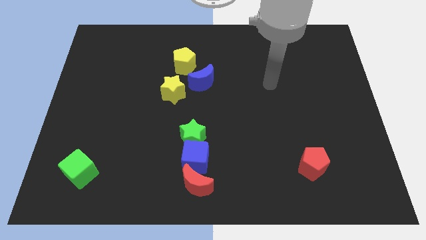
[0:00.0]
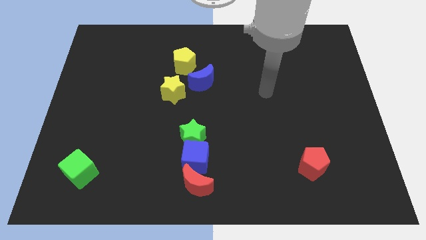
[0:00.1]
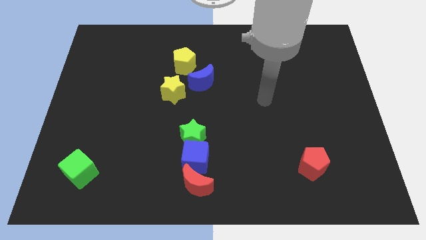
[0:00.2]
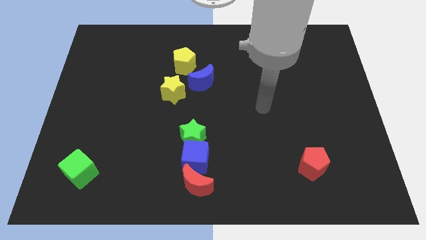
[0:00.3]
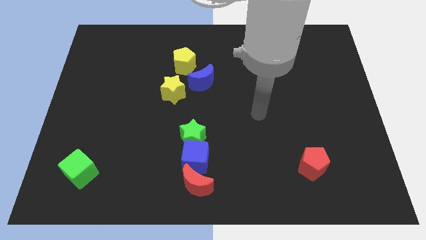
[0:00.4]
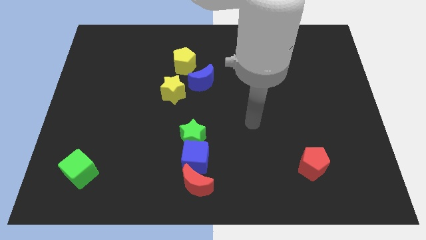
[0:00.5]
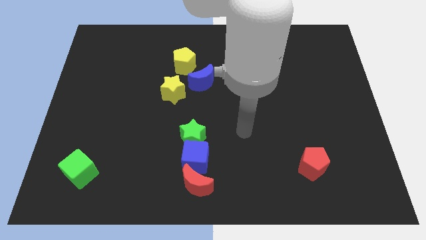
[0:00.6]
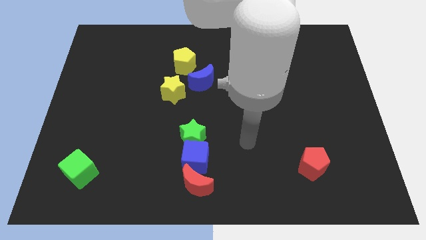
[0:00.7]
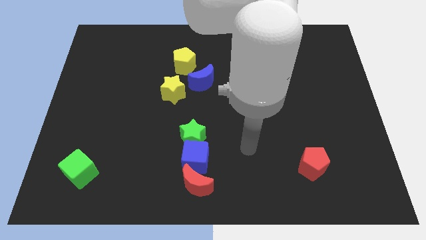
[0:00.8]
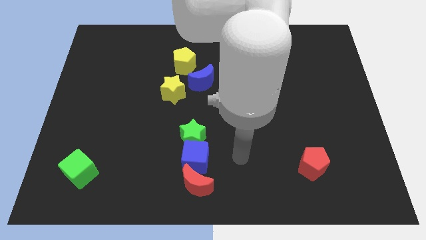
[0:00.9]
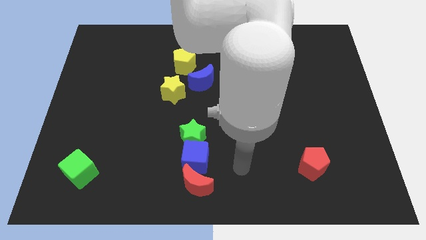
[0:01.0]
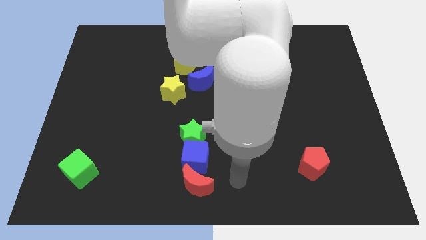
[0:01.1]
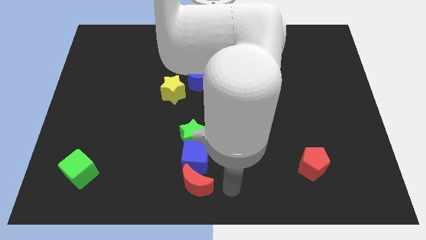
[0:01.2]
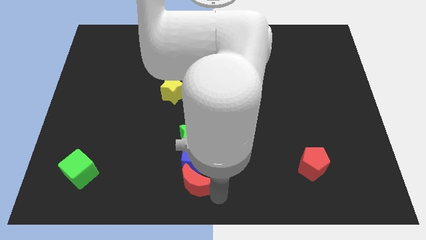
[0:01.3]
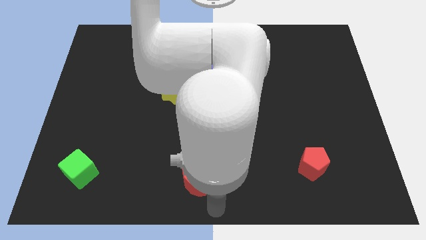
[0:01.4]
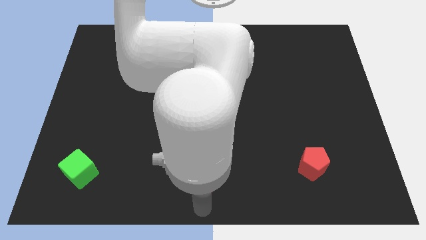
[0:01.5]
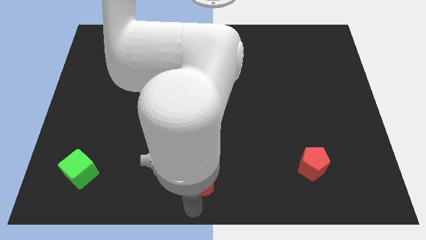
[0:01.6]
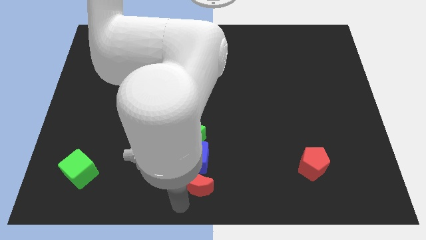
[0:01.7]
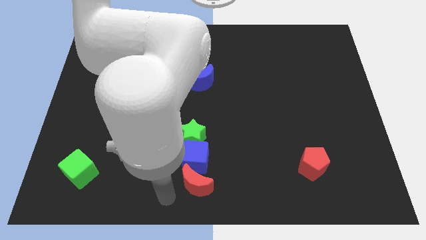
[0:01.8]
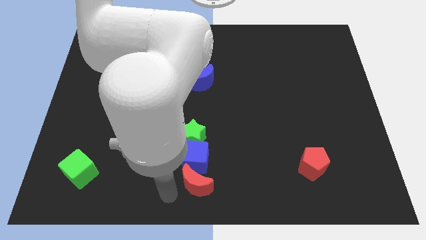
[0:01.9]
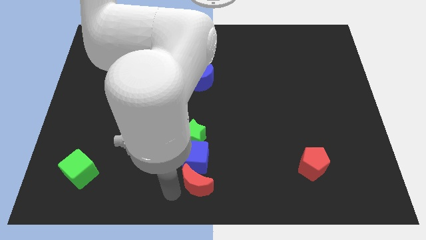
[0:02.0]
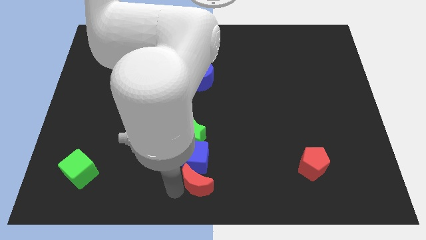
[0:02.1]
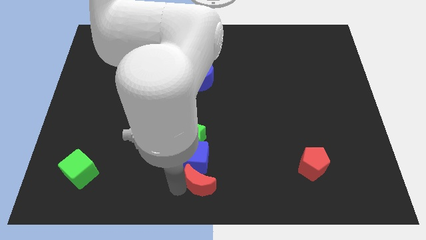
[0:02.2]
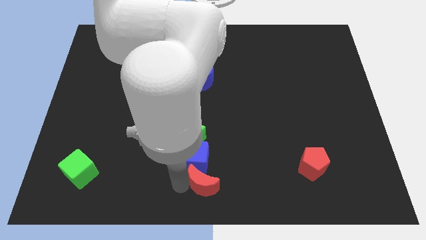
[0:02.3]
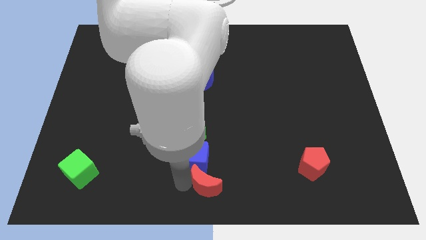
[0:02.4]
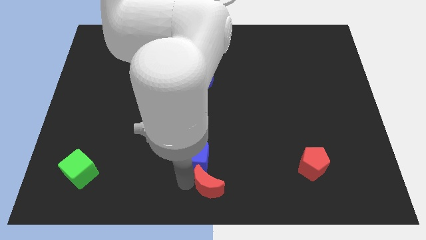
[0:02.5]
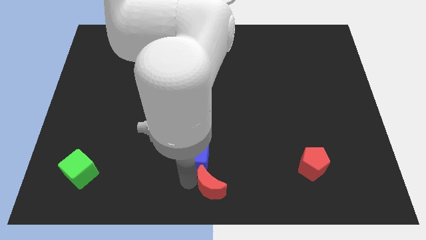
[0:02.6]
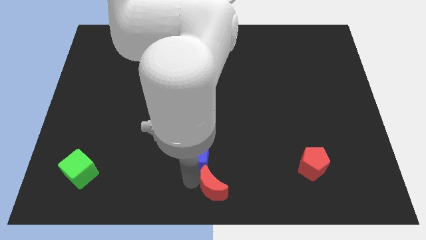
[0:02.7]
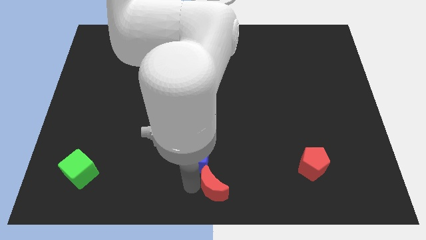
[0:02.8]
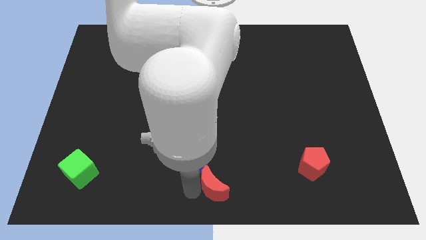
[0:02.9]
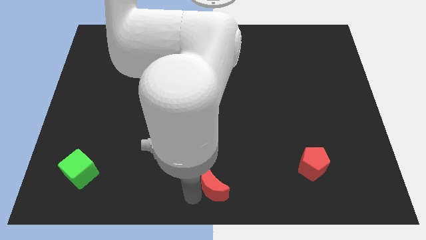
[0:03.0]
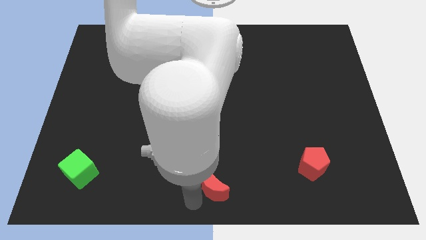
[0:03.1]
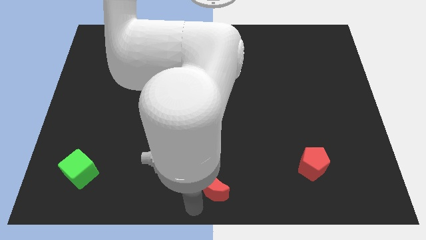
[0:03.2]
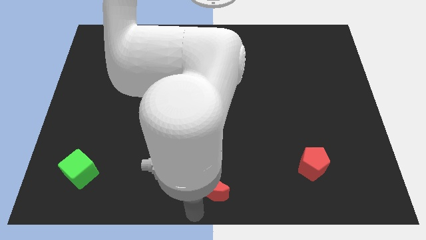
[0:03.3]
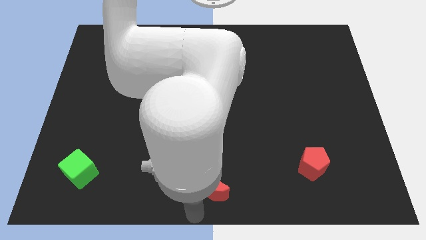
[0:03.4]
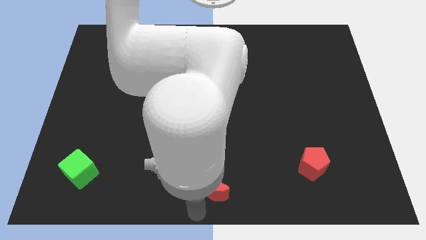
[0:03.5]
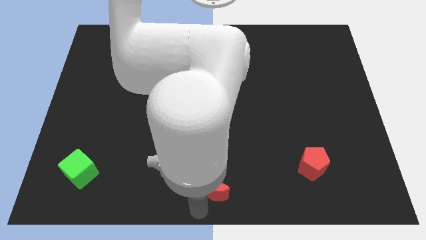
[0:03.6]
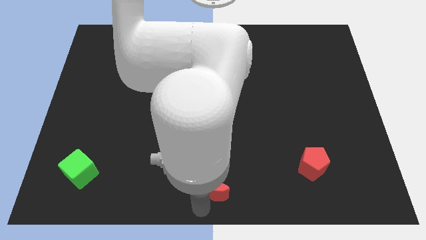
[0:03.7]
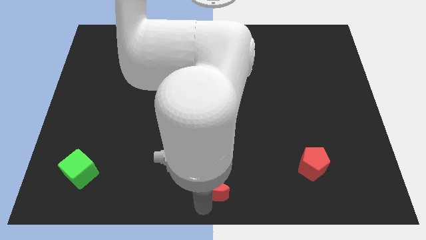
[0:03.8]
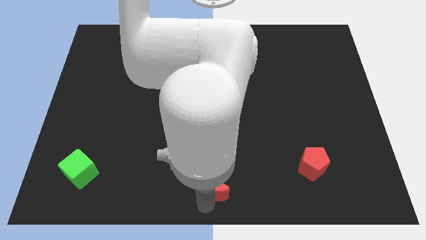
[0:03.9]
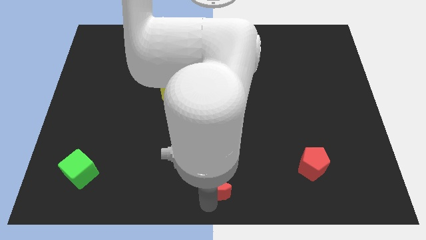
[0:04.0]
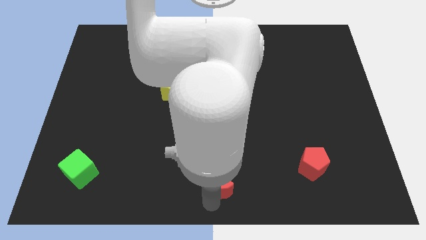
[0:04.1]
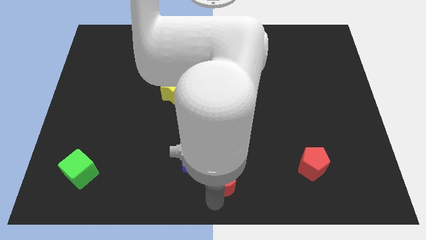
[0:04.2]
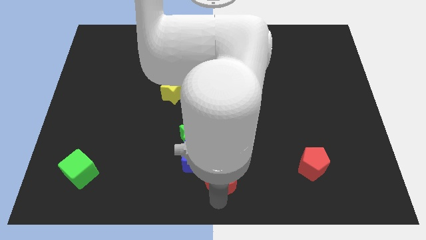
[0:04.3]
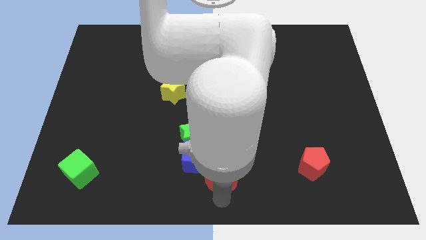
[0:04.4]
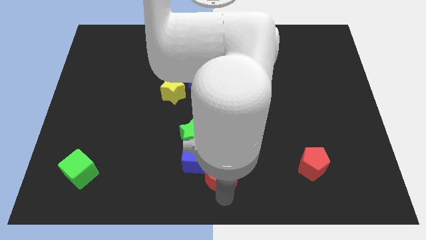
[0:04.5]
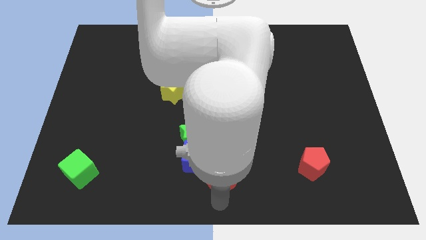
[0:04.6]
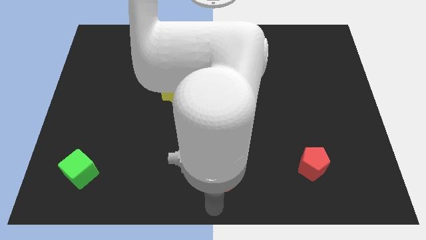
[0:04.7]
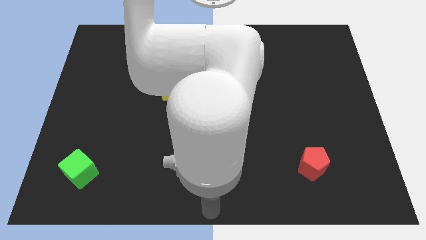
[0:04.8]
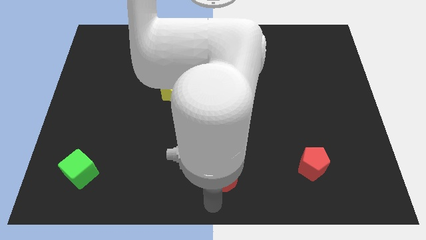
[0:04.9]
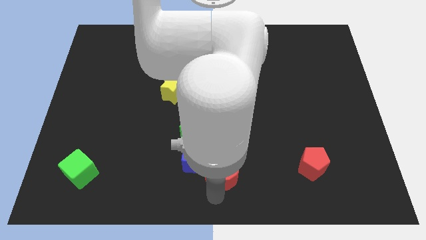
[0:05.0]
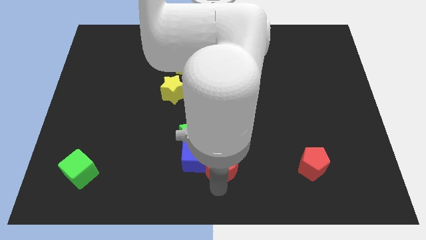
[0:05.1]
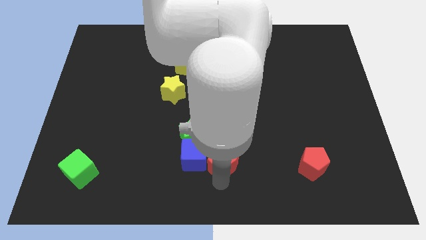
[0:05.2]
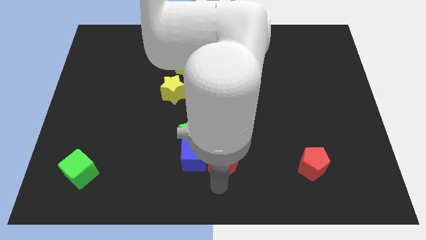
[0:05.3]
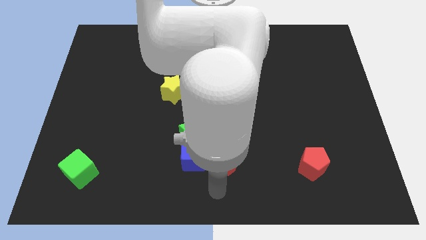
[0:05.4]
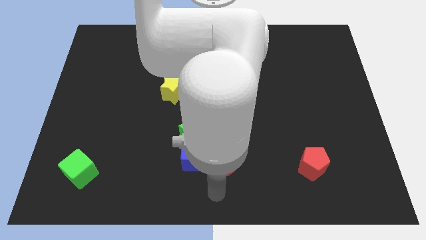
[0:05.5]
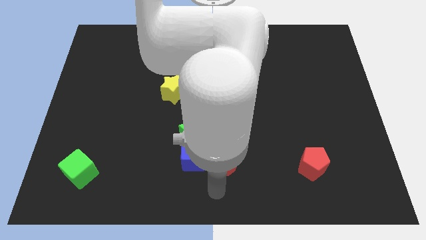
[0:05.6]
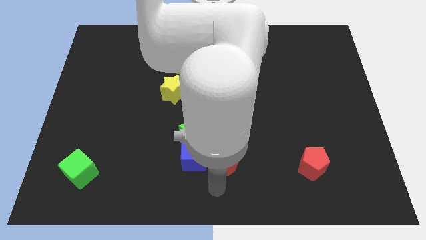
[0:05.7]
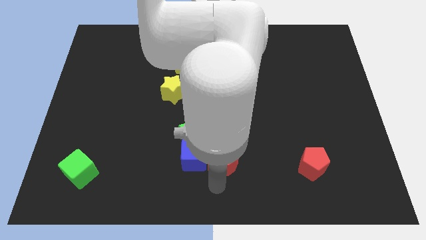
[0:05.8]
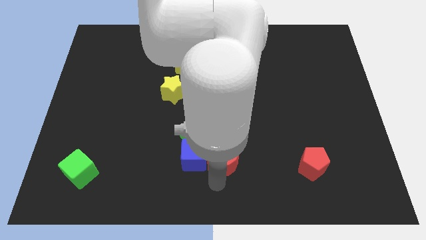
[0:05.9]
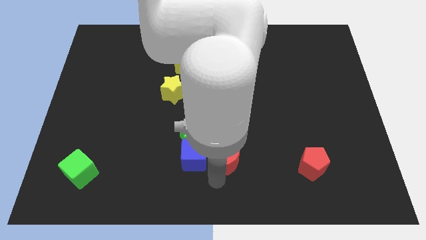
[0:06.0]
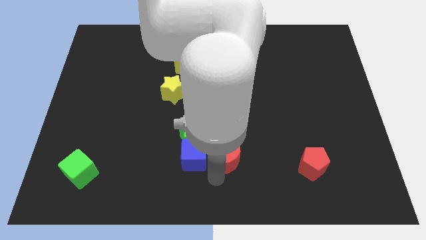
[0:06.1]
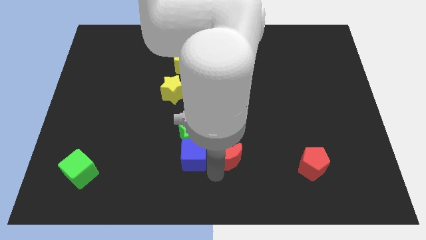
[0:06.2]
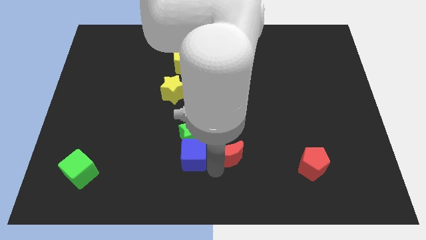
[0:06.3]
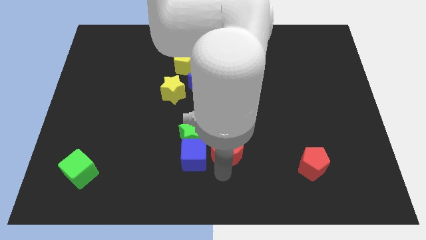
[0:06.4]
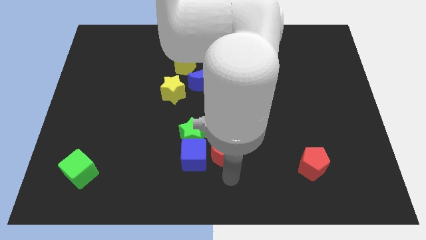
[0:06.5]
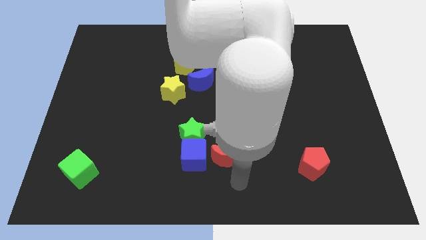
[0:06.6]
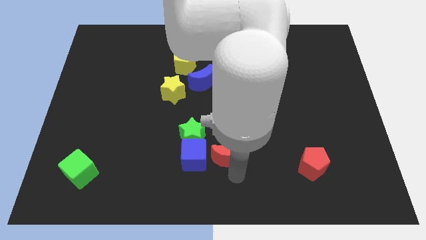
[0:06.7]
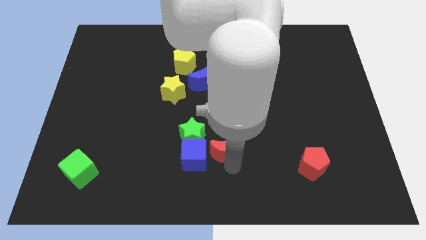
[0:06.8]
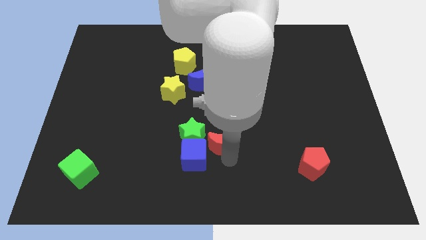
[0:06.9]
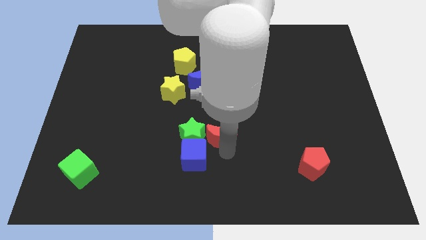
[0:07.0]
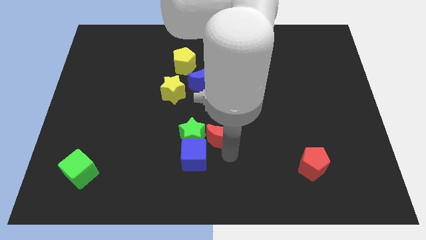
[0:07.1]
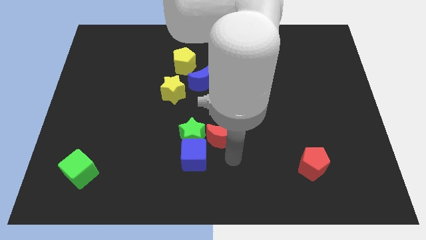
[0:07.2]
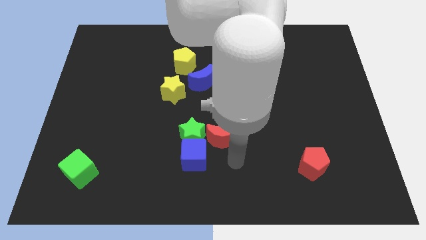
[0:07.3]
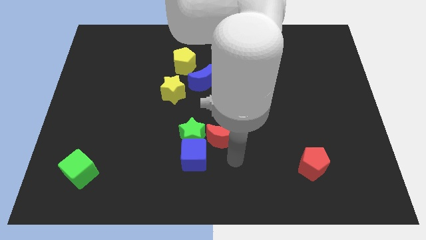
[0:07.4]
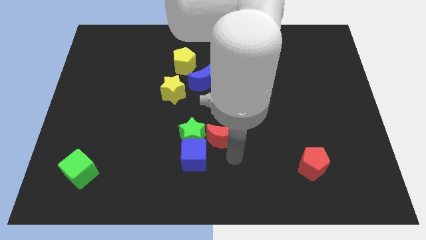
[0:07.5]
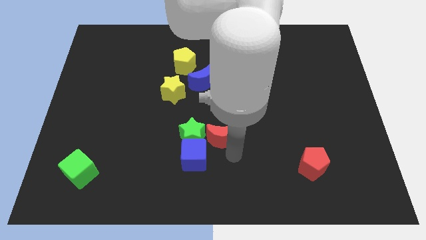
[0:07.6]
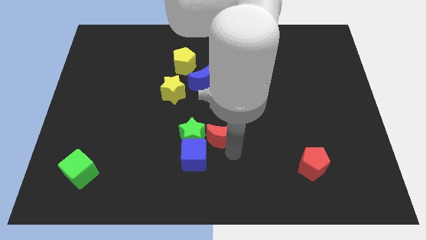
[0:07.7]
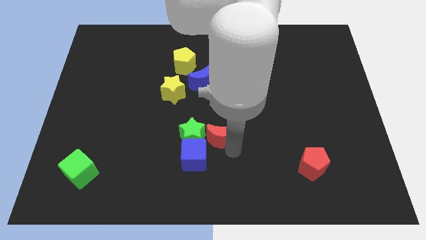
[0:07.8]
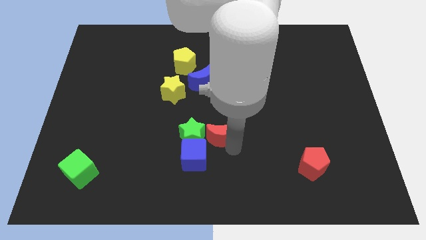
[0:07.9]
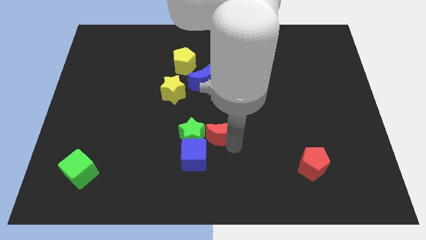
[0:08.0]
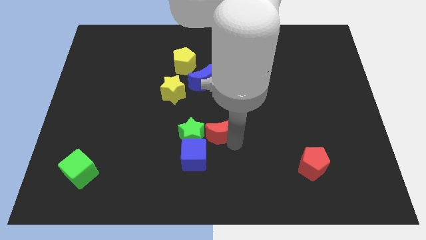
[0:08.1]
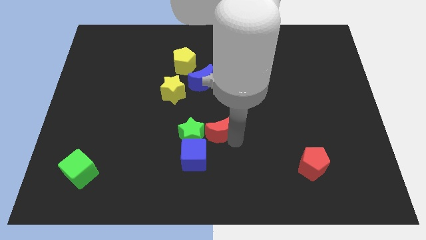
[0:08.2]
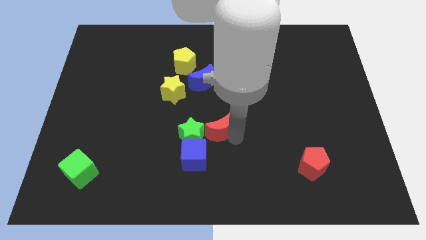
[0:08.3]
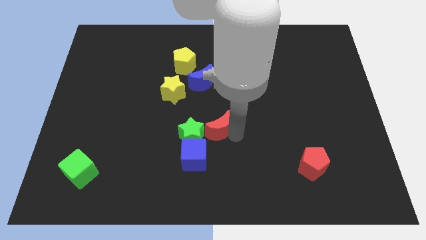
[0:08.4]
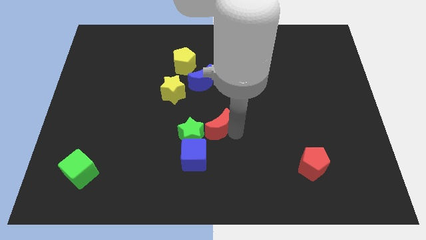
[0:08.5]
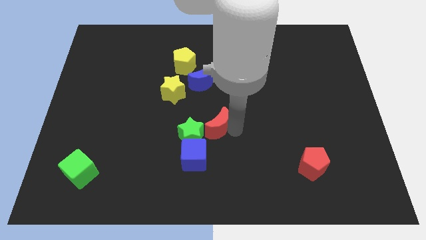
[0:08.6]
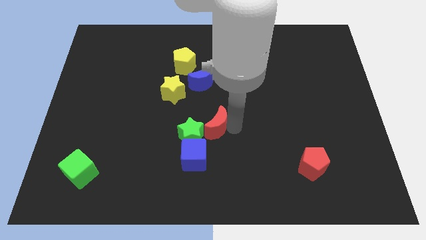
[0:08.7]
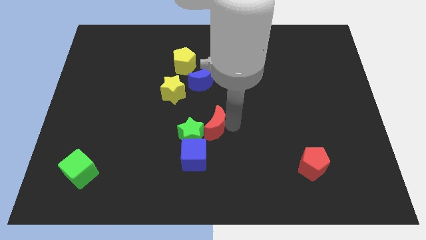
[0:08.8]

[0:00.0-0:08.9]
slide the red moon to the top side of the blue cube
